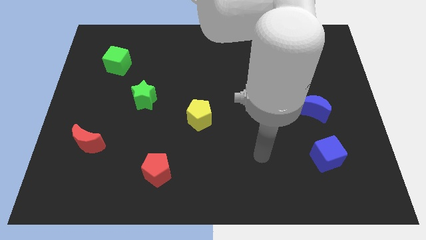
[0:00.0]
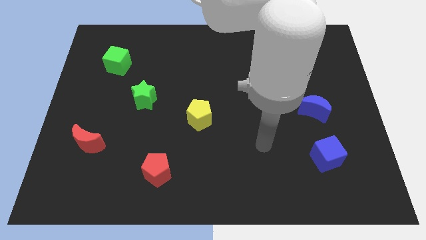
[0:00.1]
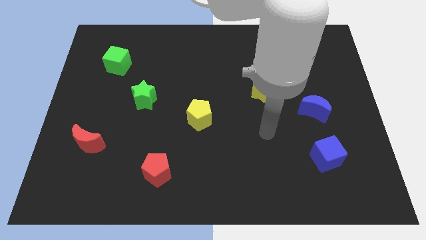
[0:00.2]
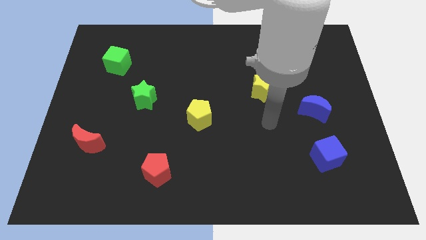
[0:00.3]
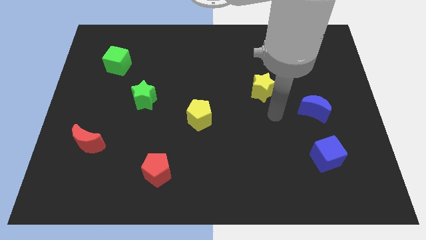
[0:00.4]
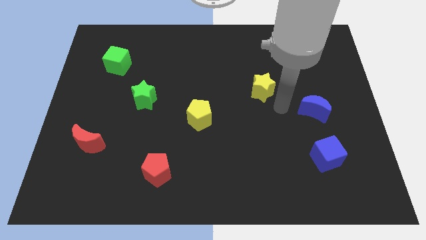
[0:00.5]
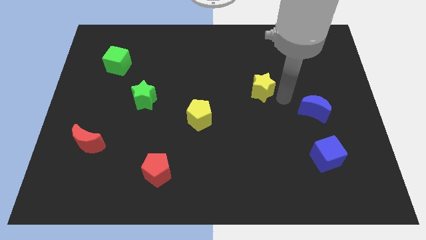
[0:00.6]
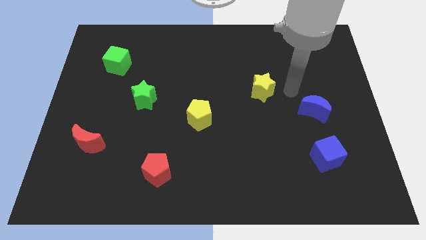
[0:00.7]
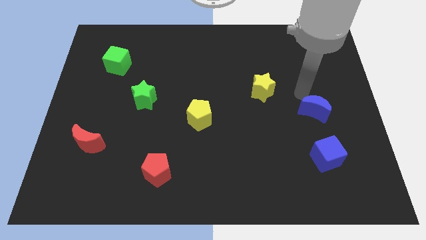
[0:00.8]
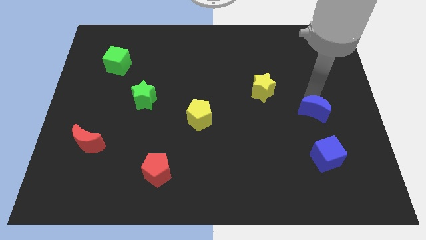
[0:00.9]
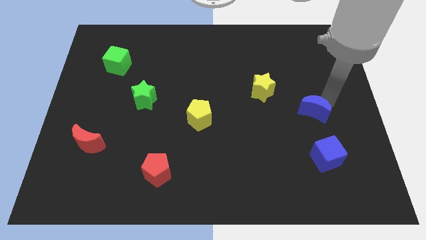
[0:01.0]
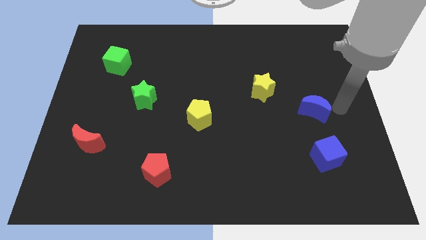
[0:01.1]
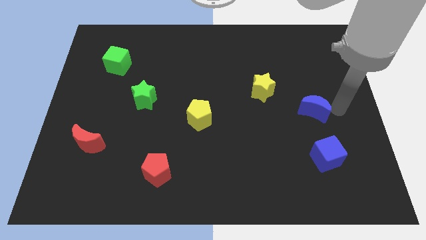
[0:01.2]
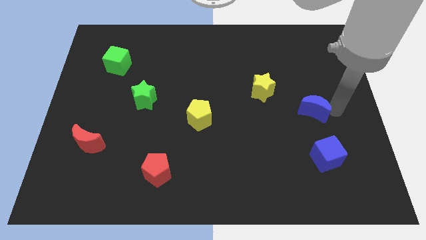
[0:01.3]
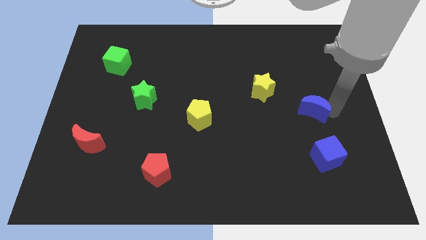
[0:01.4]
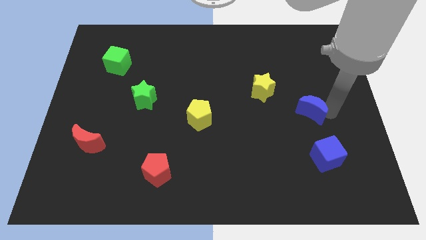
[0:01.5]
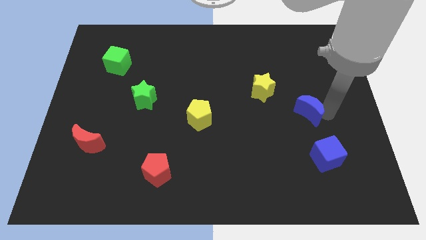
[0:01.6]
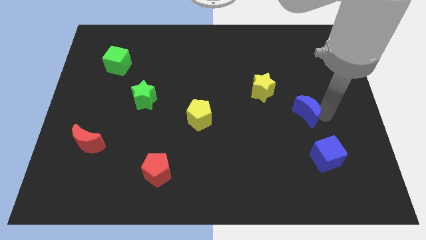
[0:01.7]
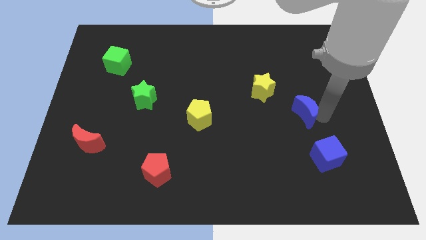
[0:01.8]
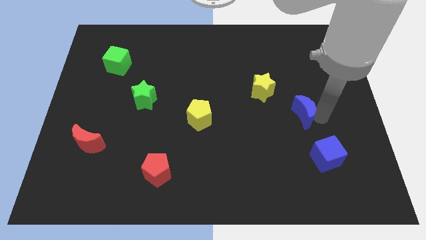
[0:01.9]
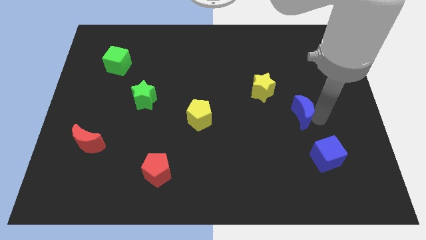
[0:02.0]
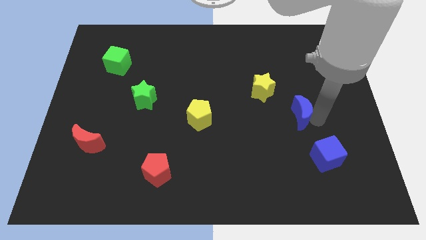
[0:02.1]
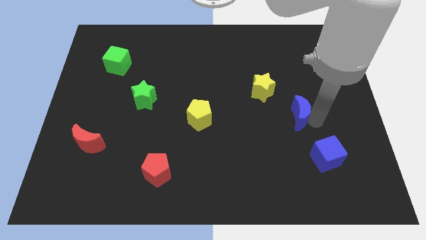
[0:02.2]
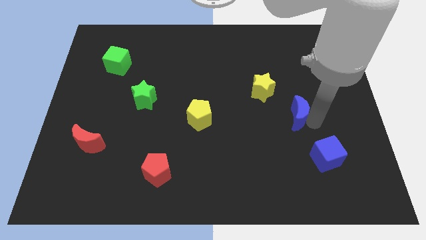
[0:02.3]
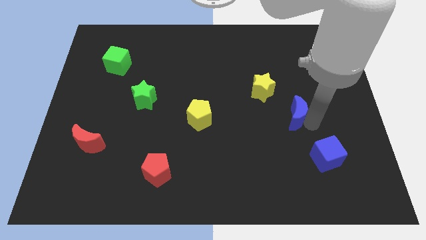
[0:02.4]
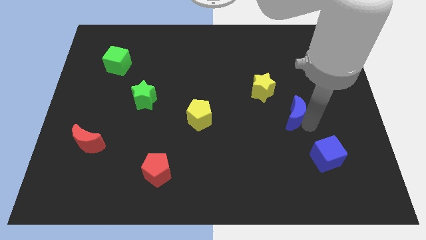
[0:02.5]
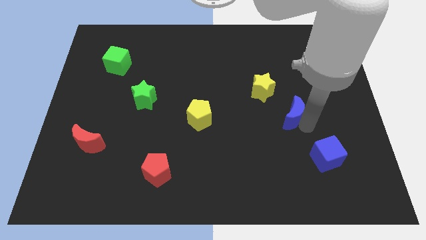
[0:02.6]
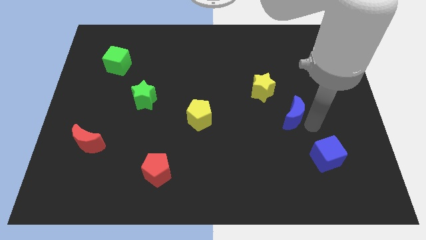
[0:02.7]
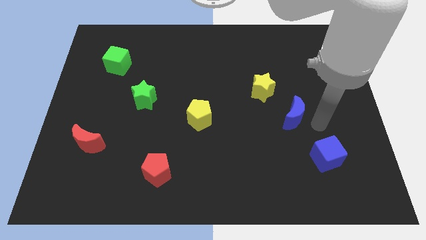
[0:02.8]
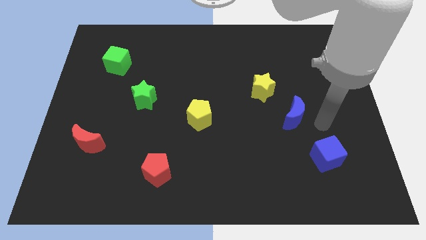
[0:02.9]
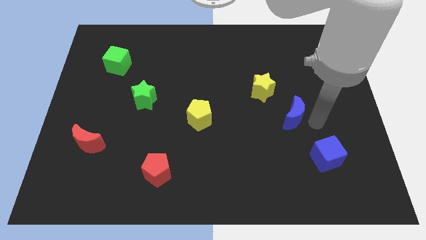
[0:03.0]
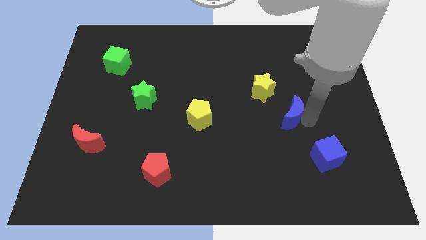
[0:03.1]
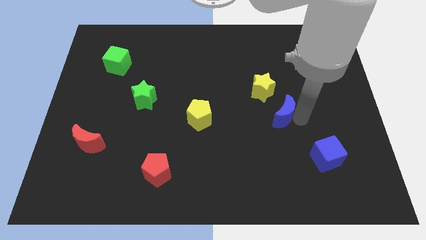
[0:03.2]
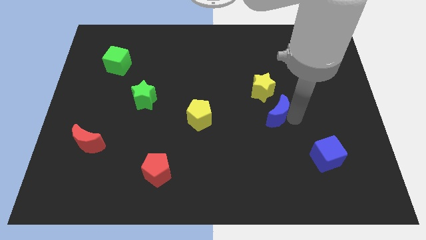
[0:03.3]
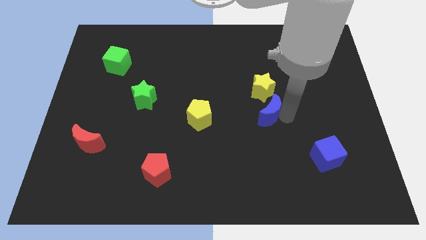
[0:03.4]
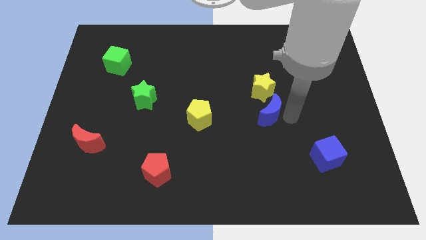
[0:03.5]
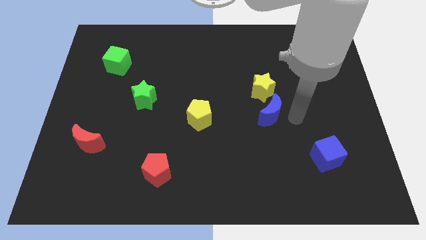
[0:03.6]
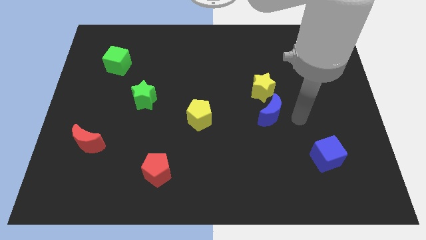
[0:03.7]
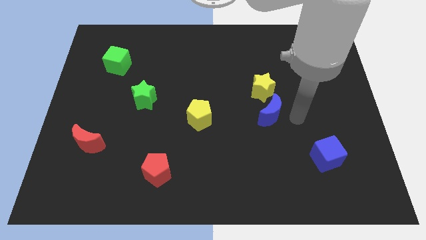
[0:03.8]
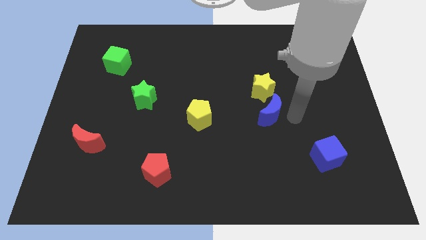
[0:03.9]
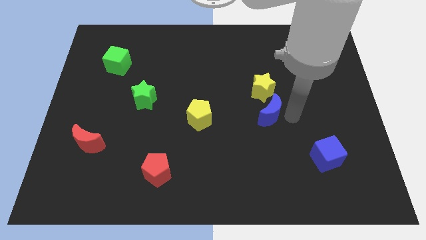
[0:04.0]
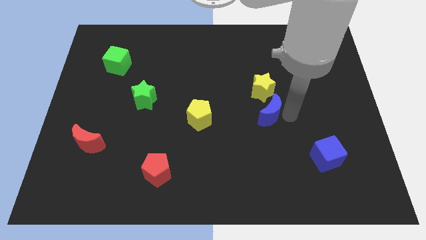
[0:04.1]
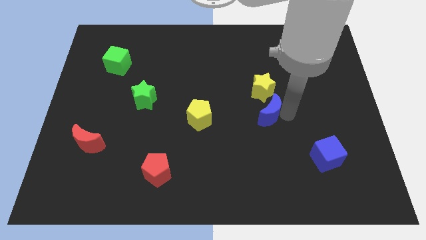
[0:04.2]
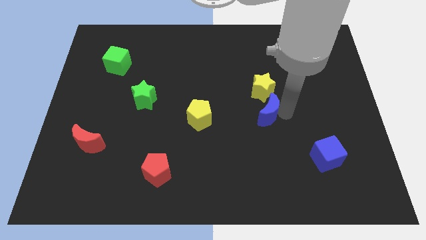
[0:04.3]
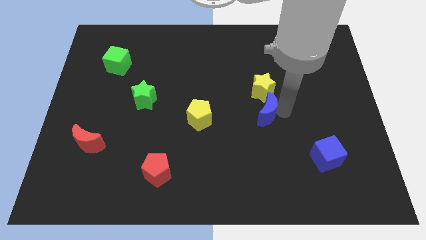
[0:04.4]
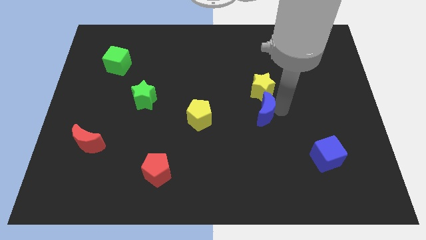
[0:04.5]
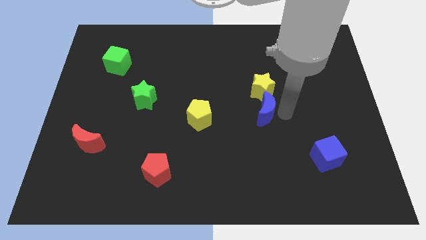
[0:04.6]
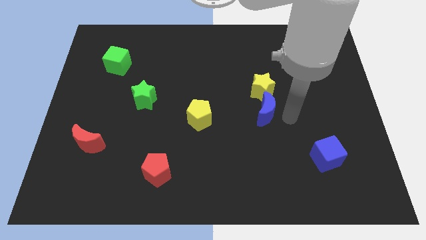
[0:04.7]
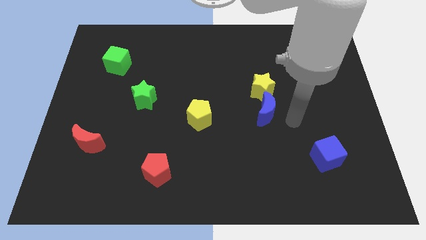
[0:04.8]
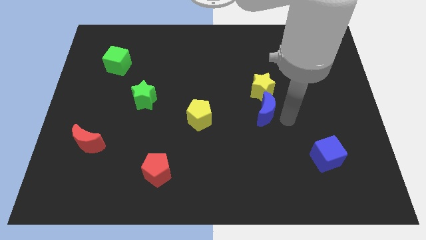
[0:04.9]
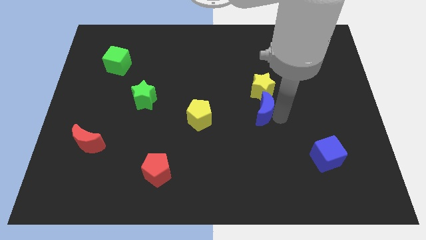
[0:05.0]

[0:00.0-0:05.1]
push the blue moon to the center of the board
